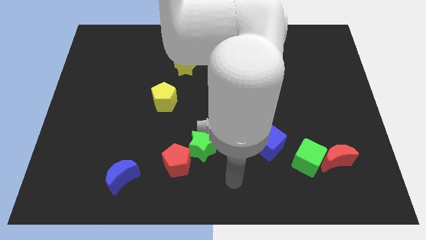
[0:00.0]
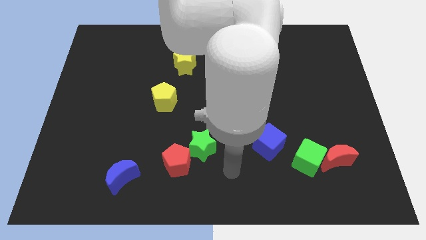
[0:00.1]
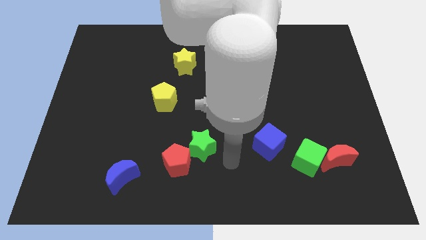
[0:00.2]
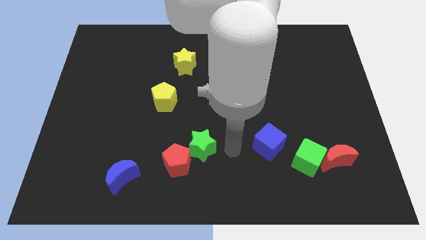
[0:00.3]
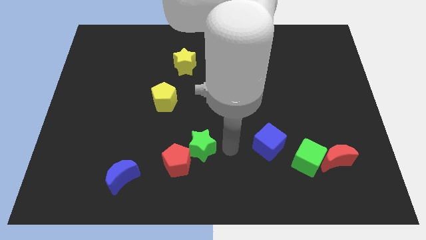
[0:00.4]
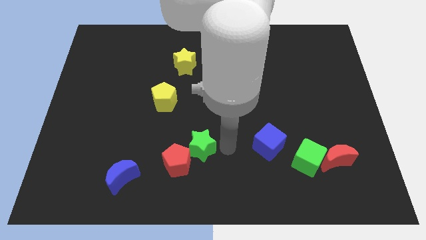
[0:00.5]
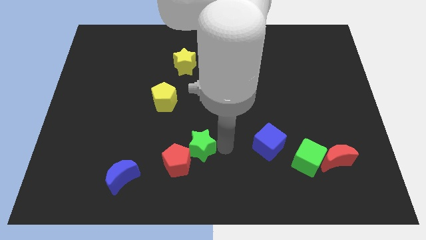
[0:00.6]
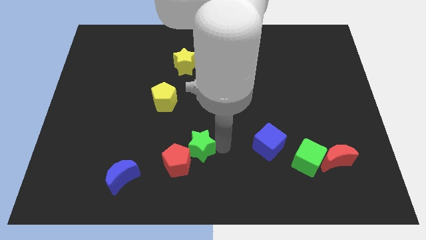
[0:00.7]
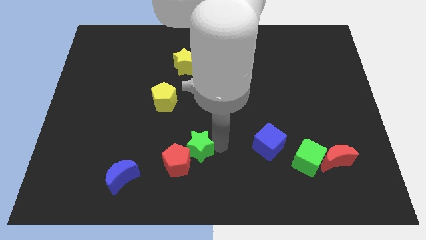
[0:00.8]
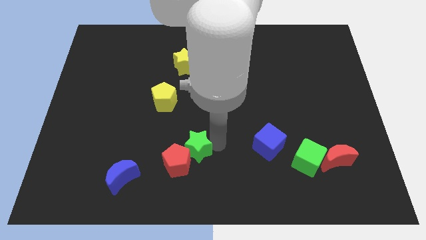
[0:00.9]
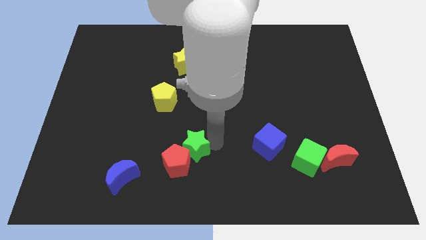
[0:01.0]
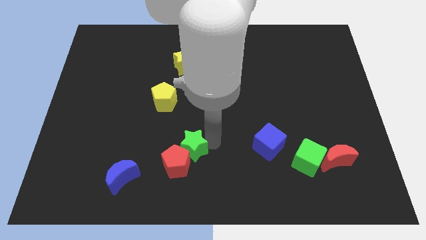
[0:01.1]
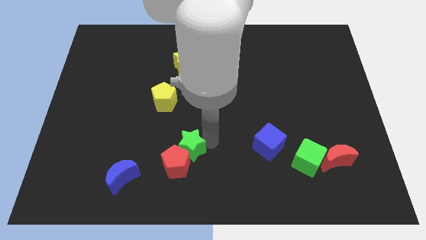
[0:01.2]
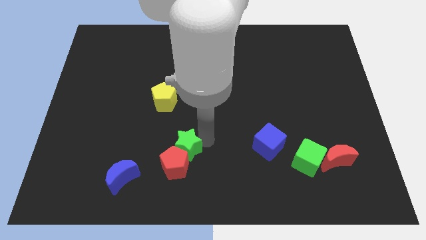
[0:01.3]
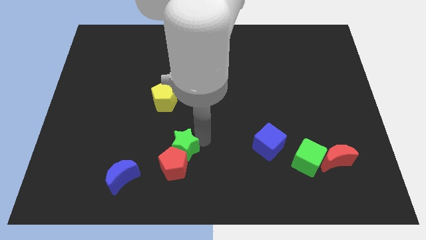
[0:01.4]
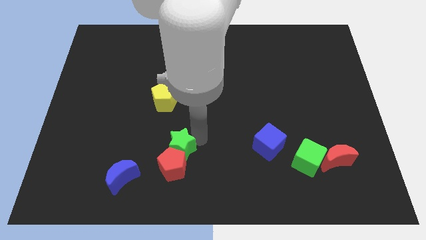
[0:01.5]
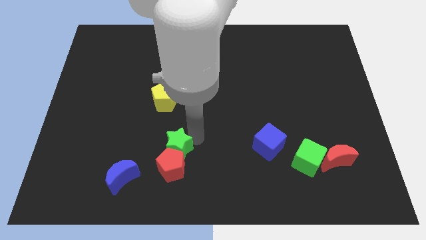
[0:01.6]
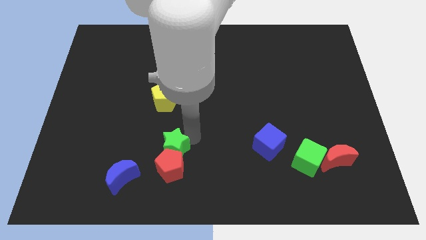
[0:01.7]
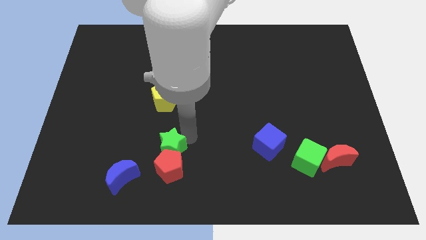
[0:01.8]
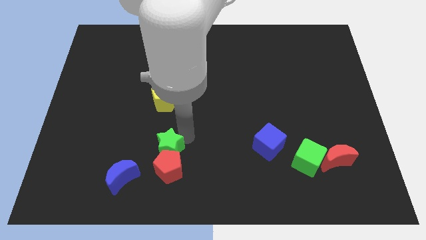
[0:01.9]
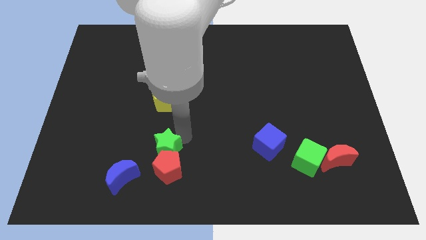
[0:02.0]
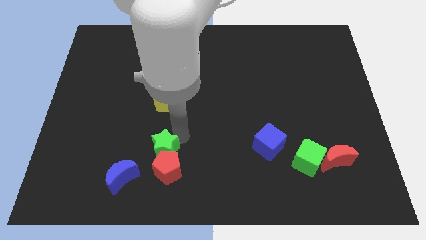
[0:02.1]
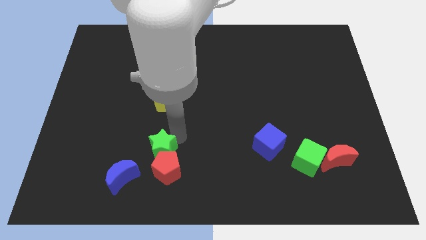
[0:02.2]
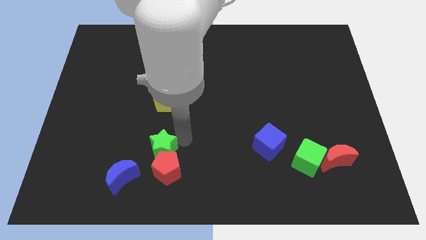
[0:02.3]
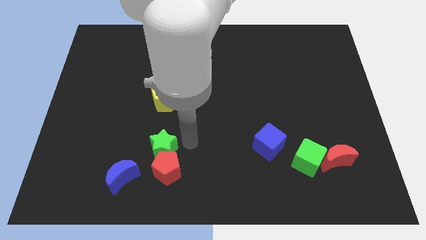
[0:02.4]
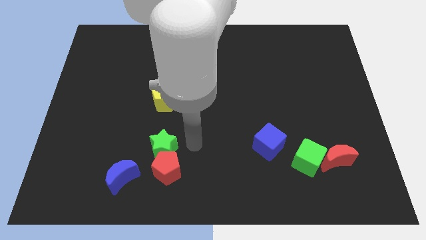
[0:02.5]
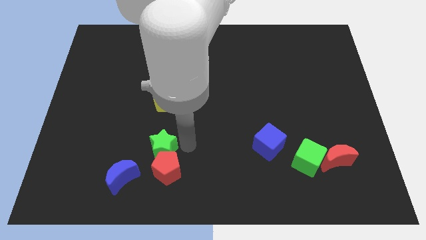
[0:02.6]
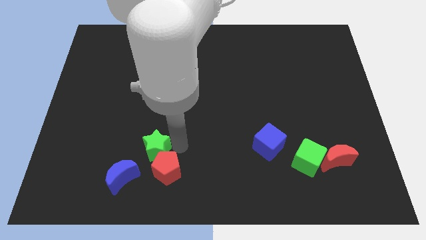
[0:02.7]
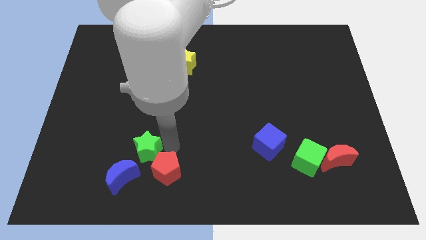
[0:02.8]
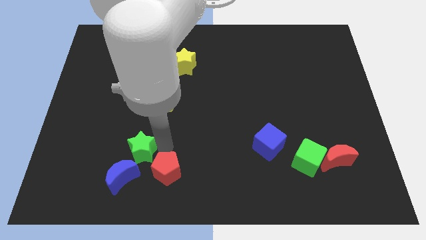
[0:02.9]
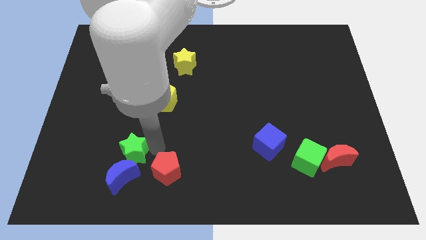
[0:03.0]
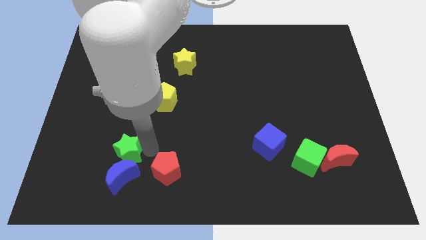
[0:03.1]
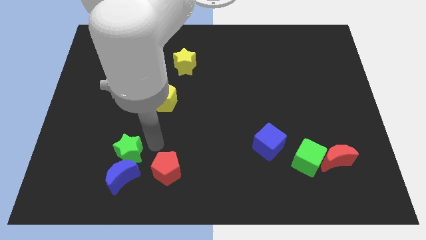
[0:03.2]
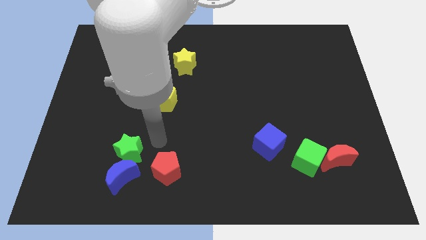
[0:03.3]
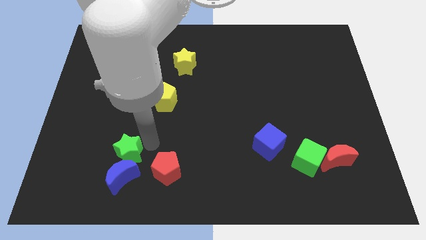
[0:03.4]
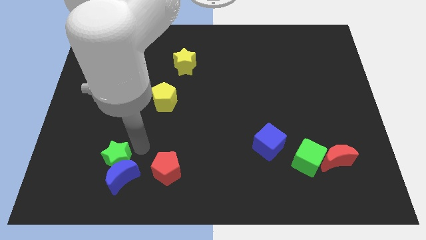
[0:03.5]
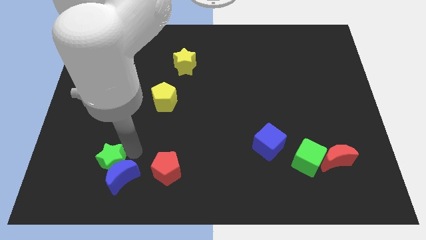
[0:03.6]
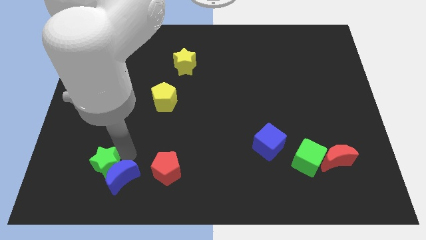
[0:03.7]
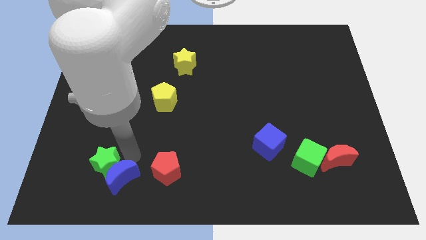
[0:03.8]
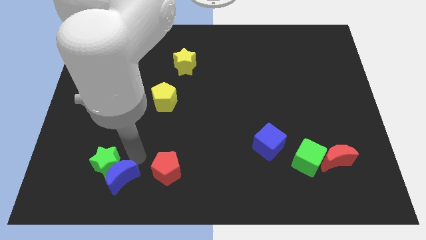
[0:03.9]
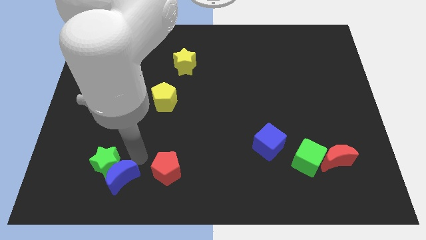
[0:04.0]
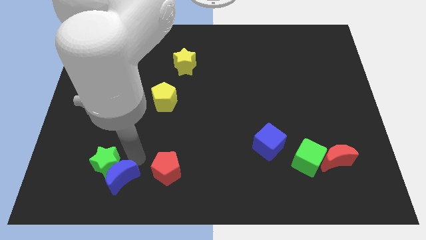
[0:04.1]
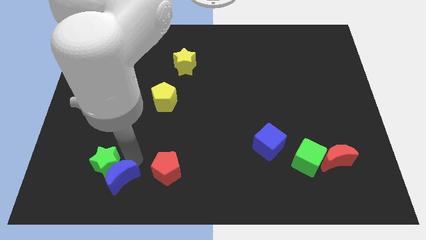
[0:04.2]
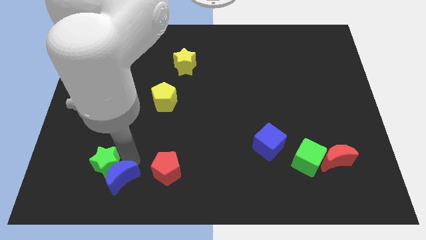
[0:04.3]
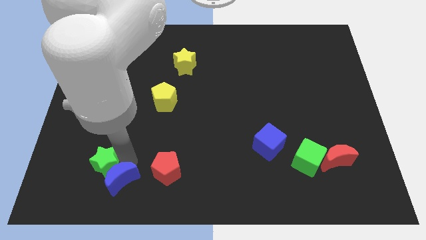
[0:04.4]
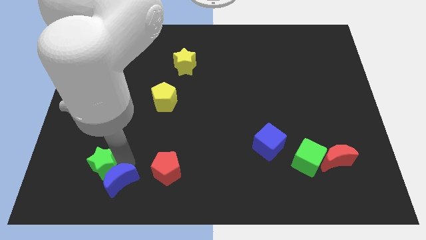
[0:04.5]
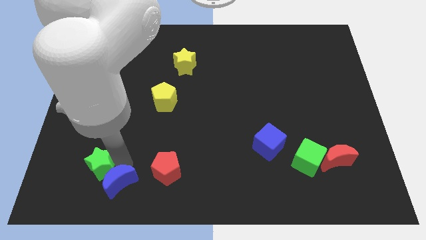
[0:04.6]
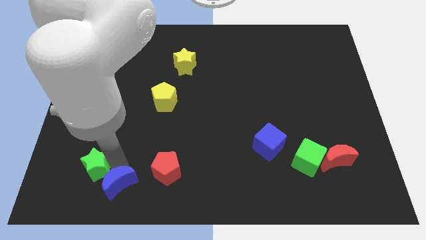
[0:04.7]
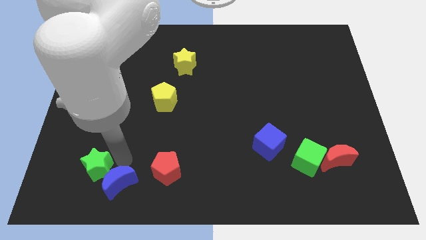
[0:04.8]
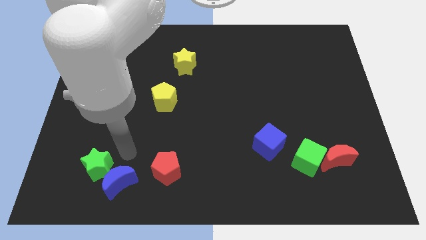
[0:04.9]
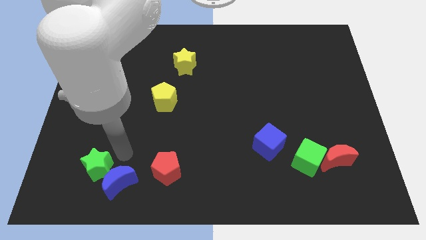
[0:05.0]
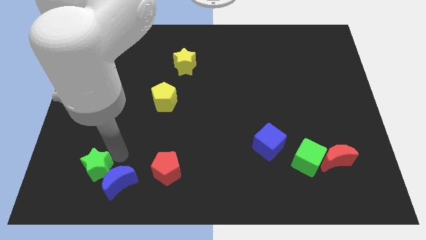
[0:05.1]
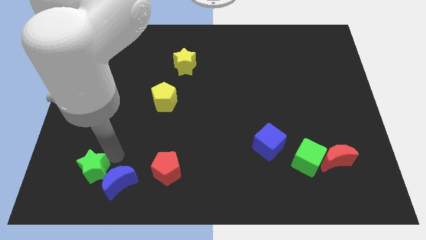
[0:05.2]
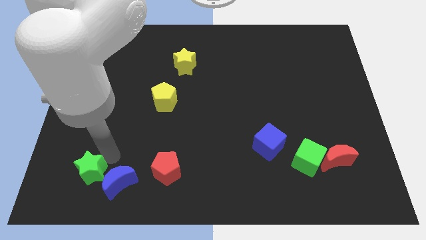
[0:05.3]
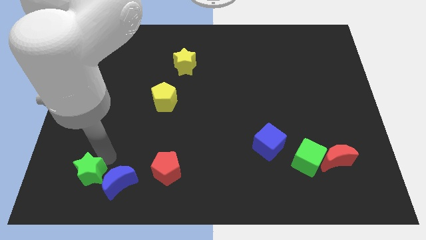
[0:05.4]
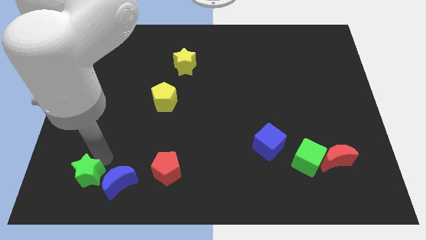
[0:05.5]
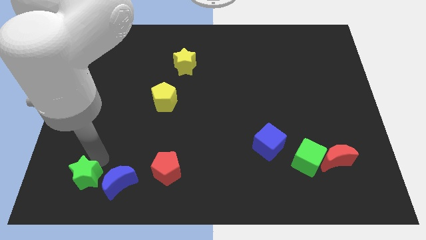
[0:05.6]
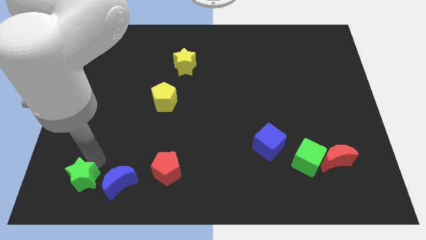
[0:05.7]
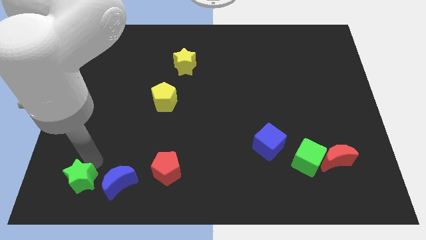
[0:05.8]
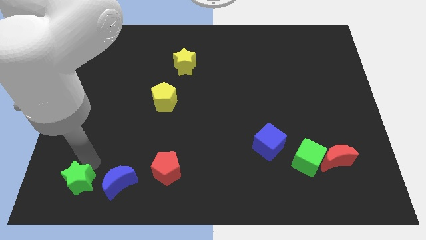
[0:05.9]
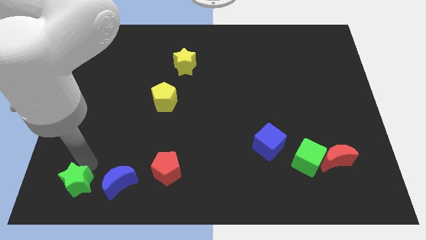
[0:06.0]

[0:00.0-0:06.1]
slide the green star to the bottom left of the board
